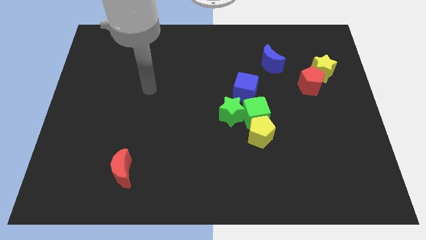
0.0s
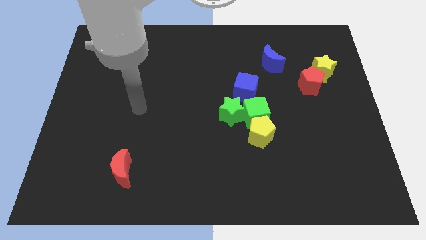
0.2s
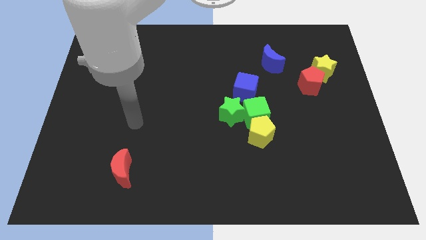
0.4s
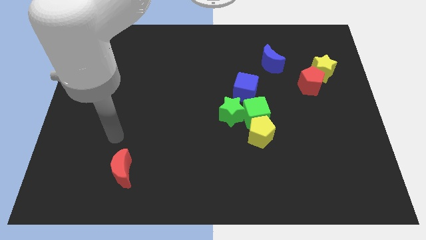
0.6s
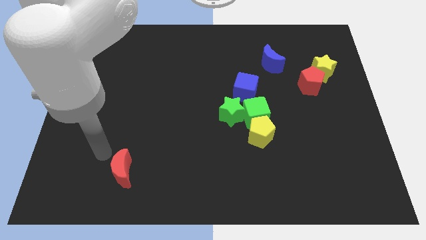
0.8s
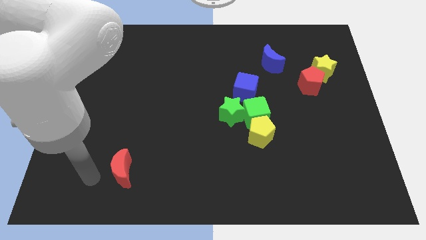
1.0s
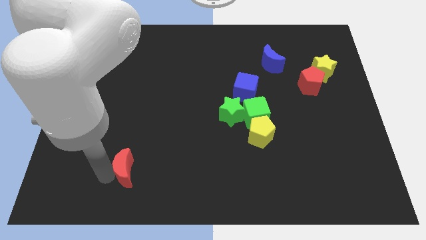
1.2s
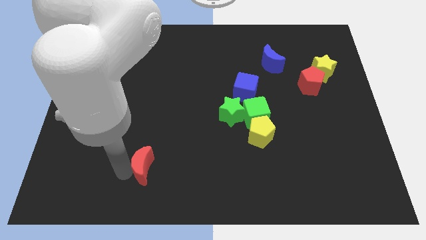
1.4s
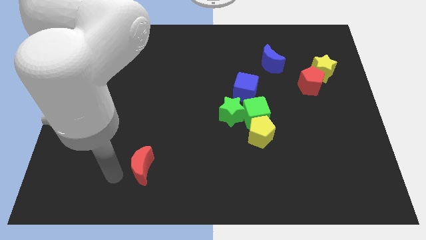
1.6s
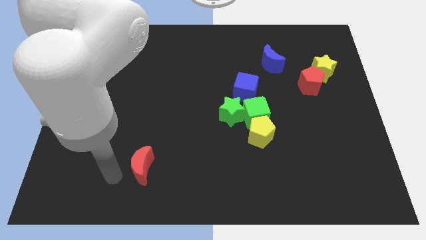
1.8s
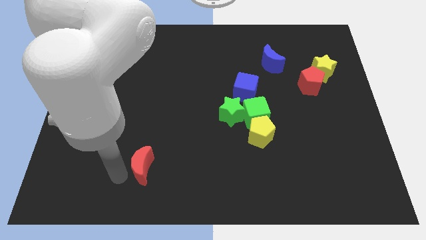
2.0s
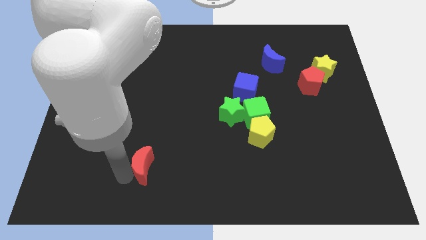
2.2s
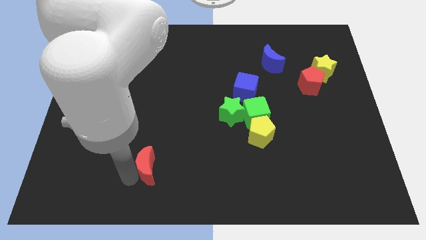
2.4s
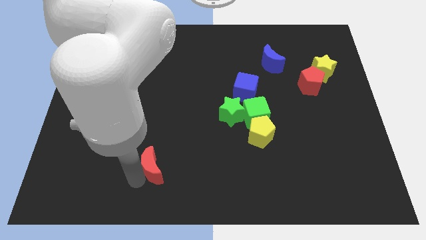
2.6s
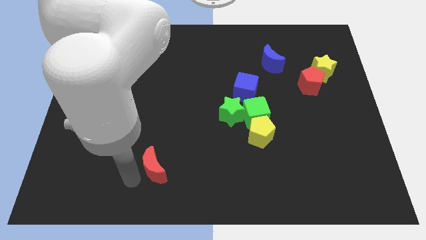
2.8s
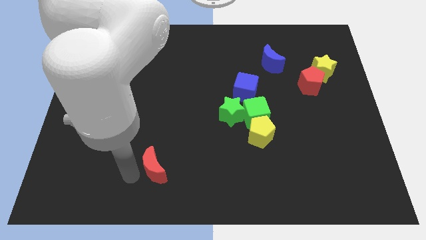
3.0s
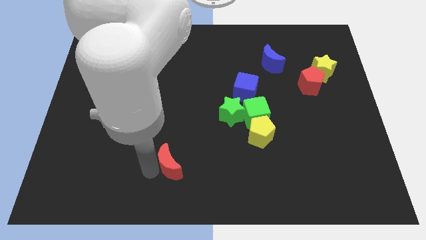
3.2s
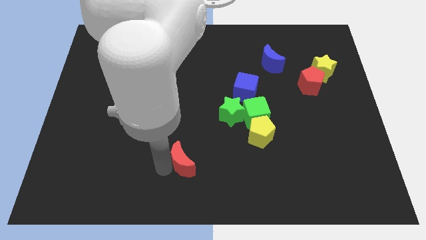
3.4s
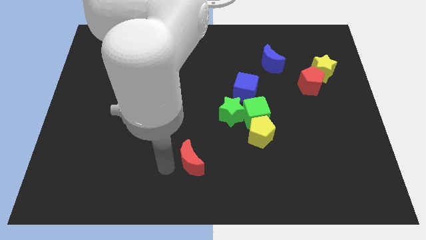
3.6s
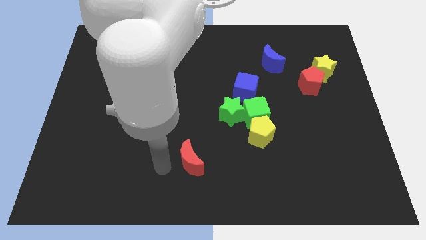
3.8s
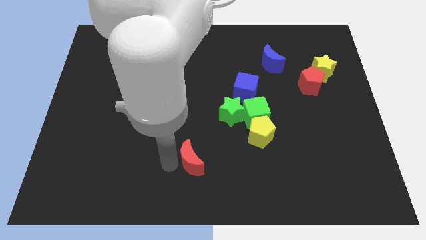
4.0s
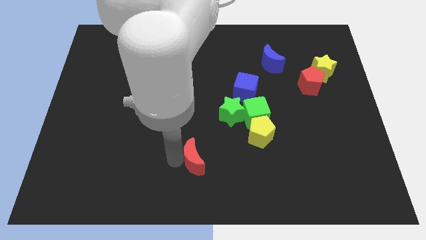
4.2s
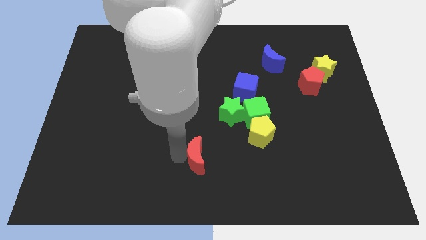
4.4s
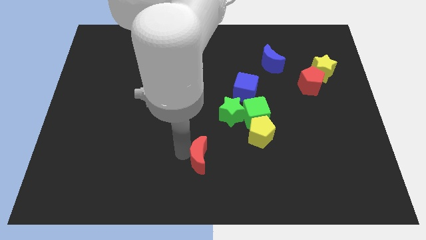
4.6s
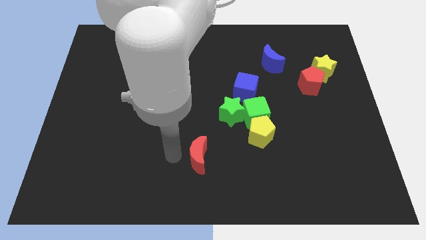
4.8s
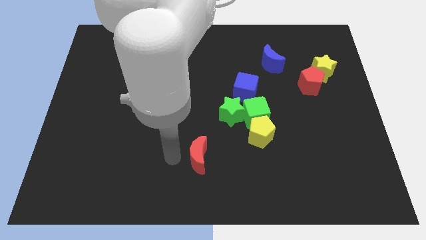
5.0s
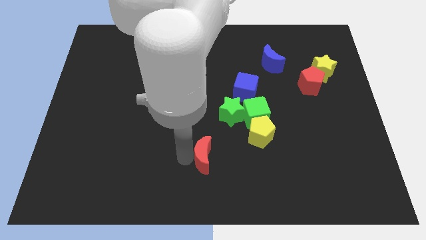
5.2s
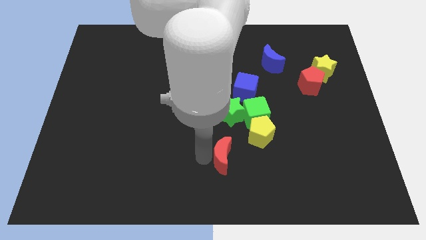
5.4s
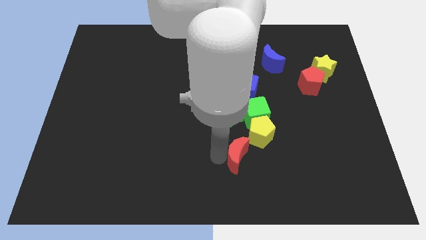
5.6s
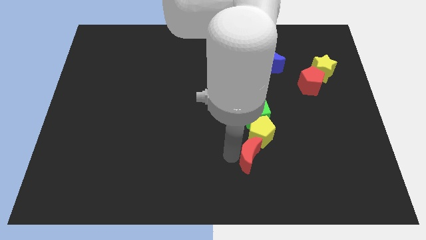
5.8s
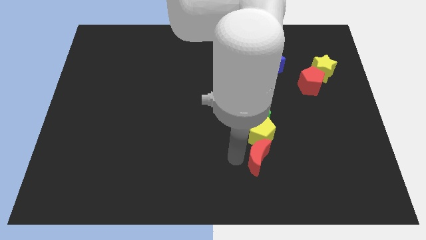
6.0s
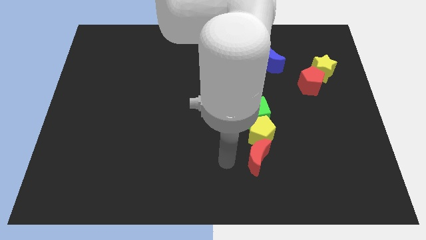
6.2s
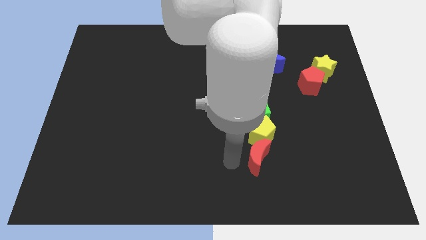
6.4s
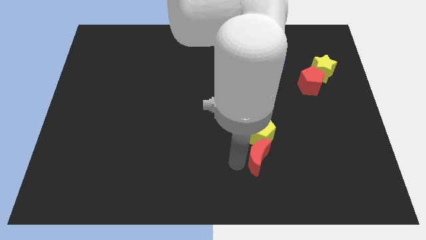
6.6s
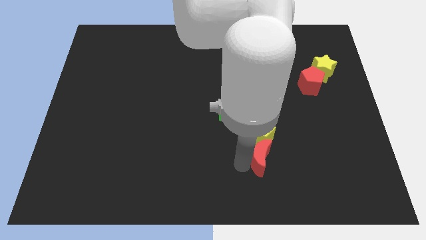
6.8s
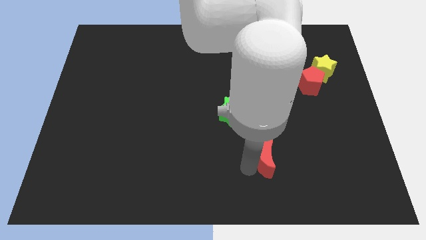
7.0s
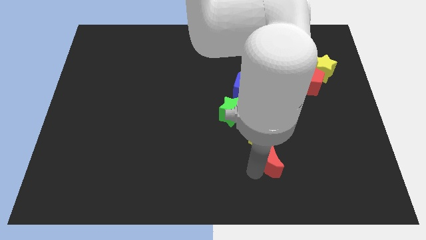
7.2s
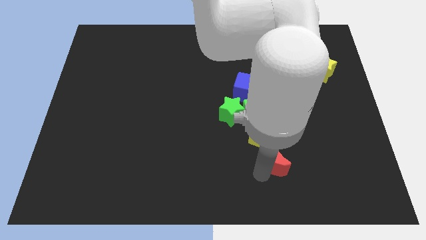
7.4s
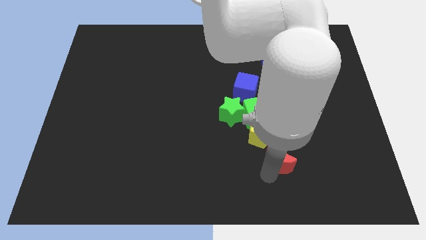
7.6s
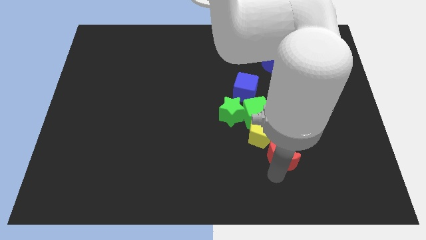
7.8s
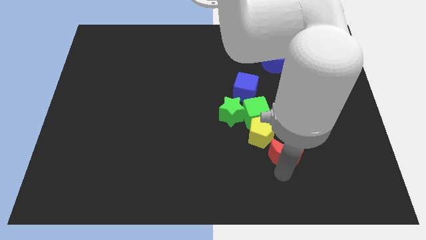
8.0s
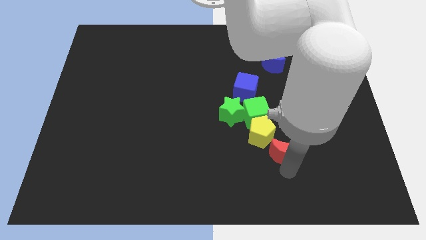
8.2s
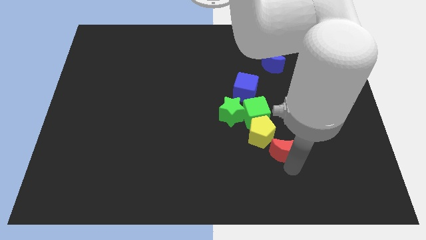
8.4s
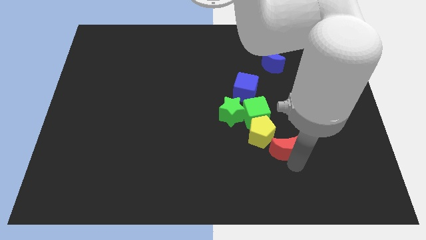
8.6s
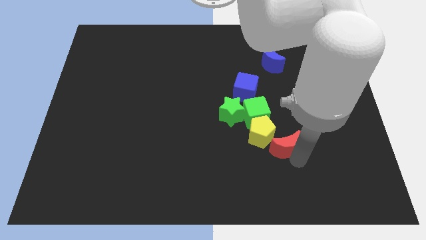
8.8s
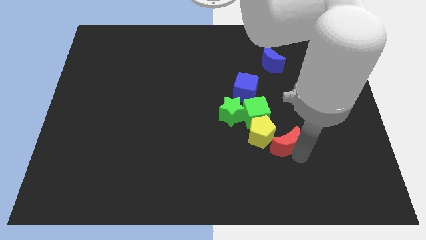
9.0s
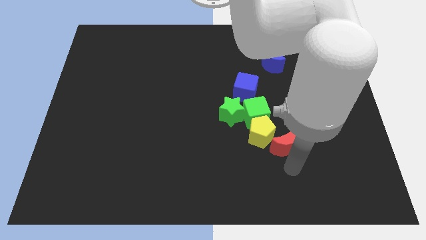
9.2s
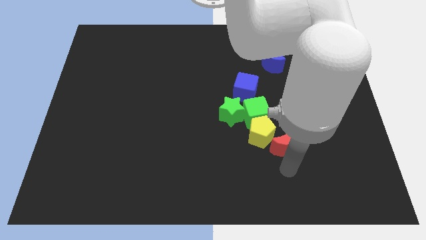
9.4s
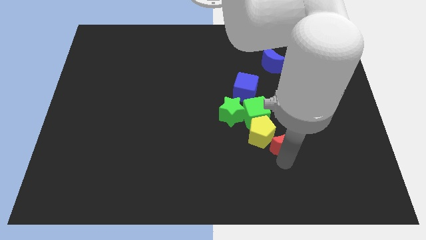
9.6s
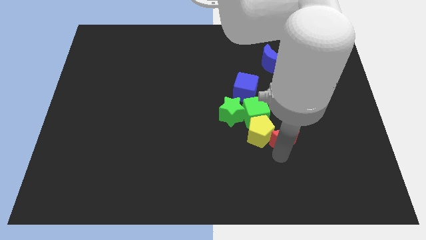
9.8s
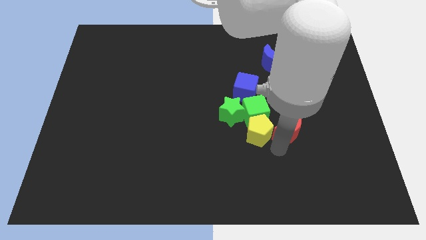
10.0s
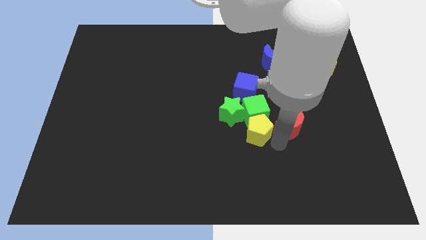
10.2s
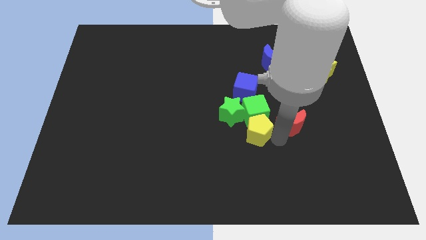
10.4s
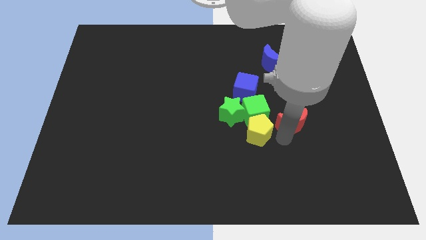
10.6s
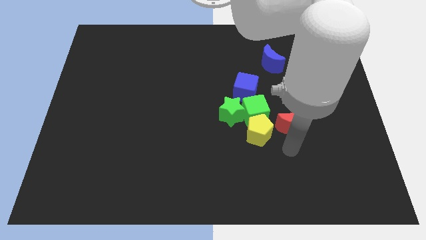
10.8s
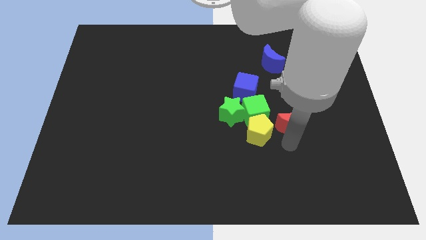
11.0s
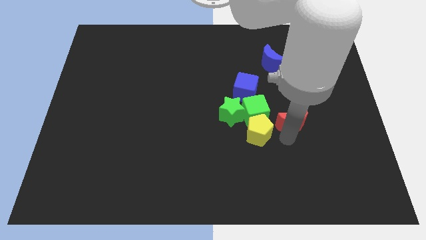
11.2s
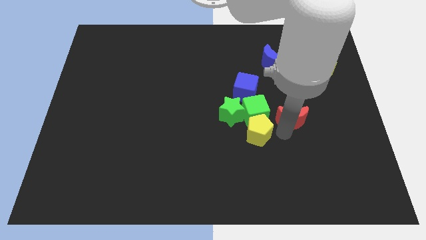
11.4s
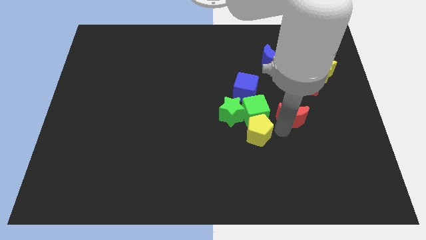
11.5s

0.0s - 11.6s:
push the red moon to the bottom left side of the red pentagon

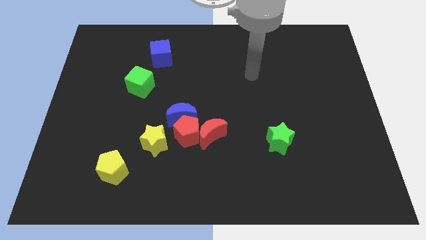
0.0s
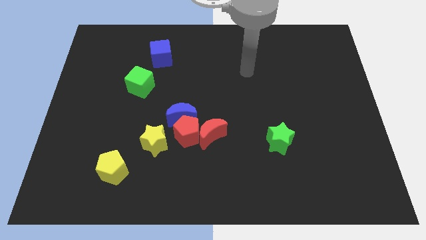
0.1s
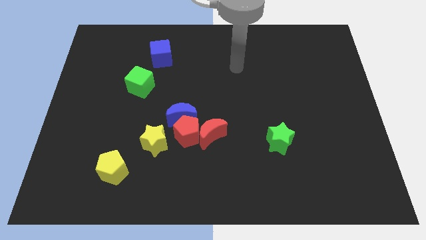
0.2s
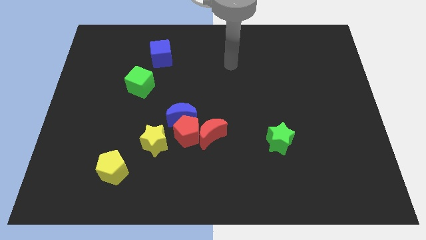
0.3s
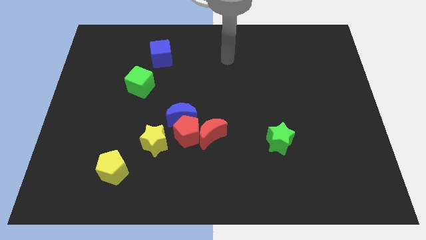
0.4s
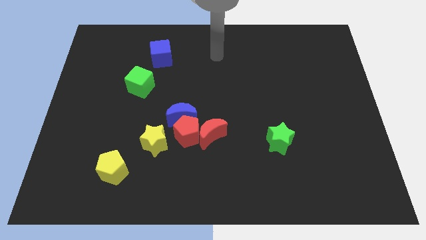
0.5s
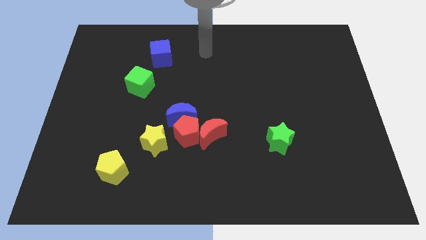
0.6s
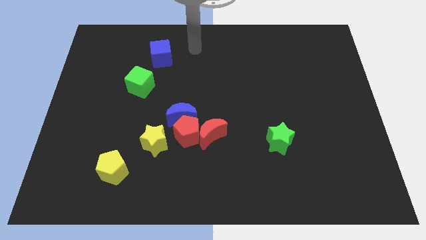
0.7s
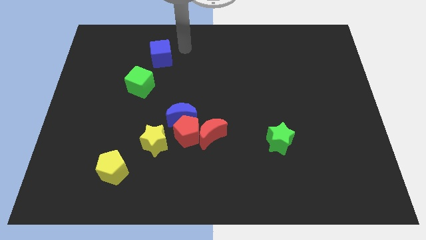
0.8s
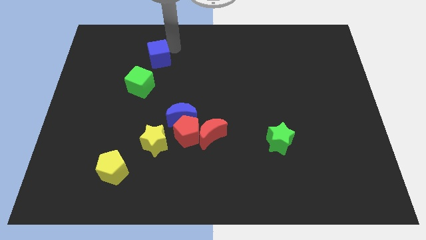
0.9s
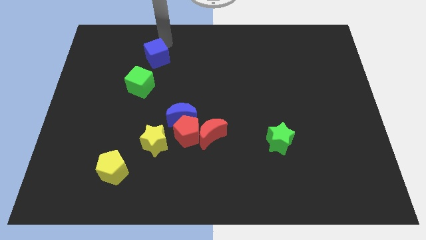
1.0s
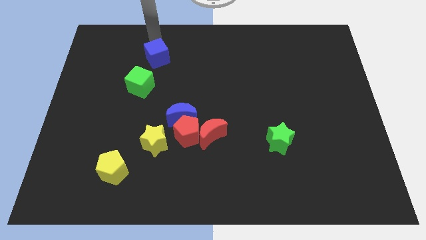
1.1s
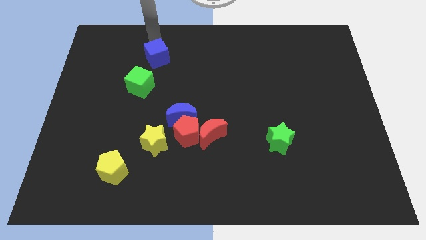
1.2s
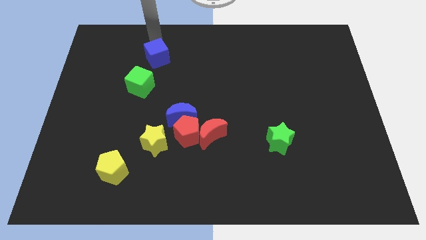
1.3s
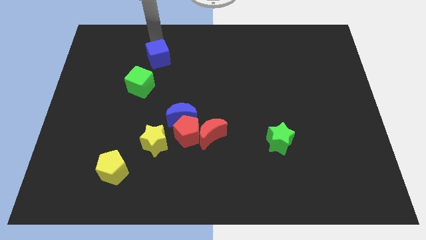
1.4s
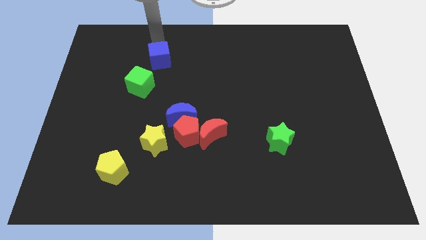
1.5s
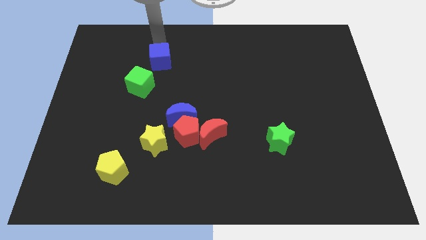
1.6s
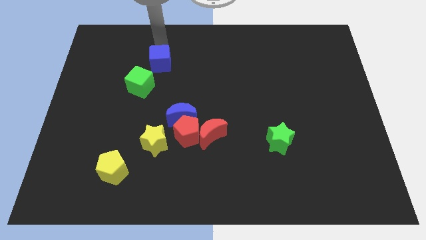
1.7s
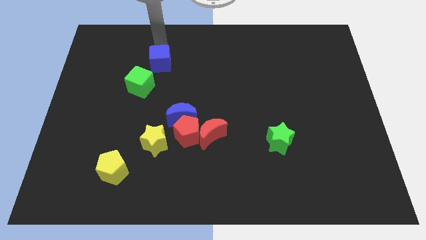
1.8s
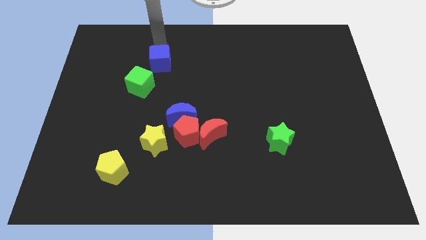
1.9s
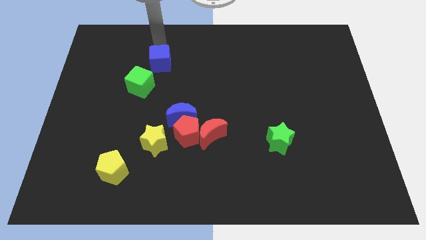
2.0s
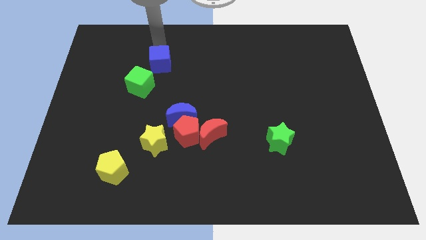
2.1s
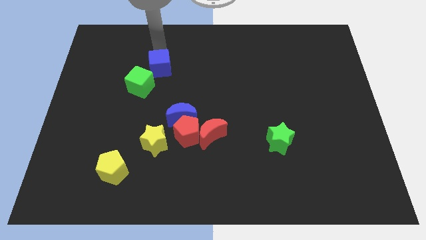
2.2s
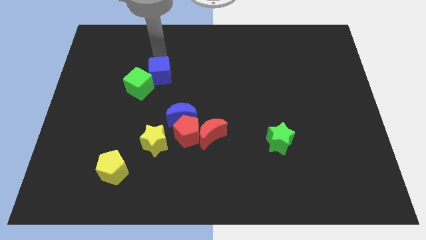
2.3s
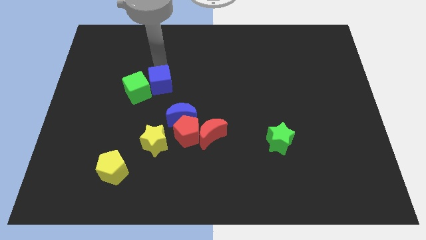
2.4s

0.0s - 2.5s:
move the blue cube diagonally up and to the left of the blue moon
